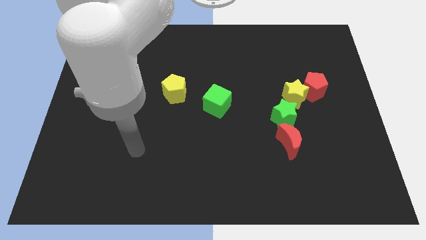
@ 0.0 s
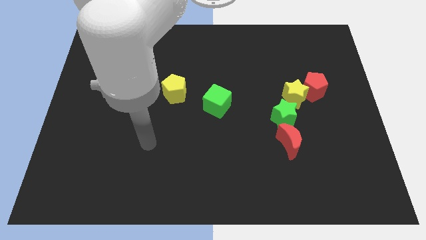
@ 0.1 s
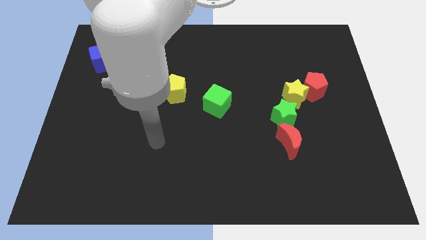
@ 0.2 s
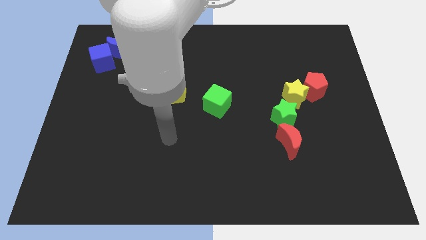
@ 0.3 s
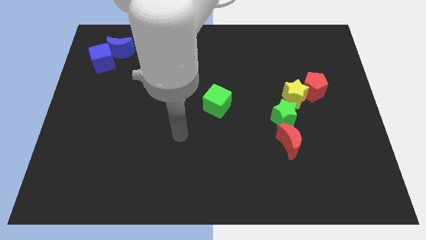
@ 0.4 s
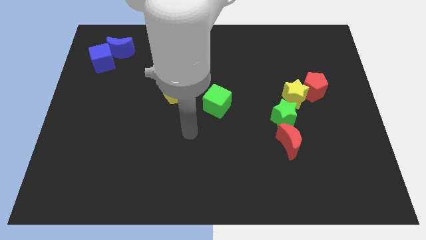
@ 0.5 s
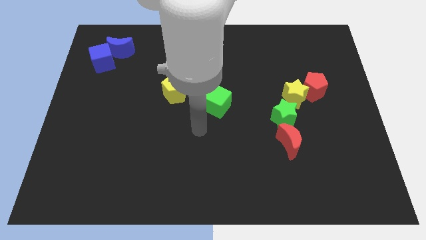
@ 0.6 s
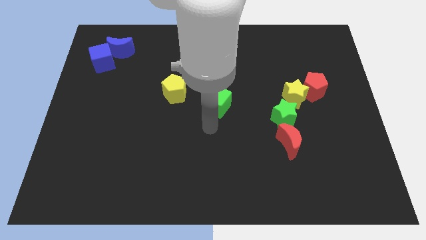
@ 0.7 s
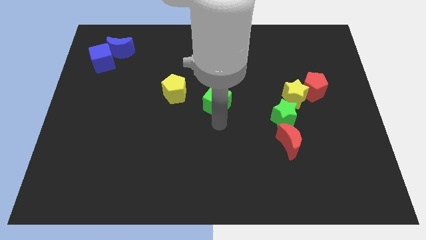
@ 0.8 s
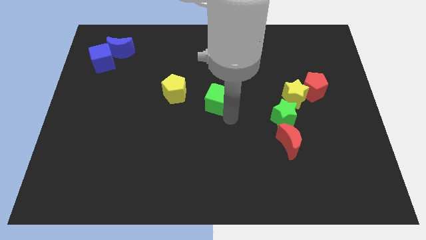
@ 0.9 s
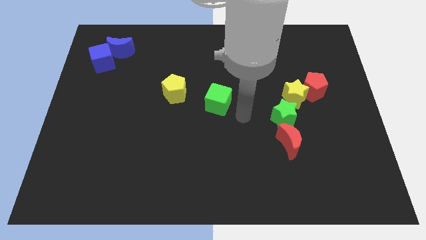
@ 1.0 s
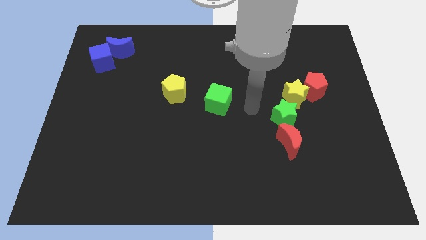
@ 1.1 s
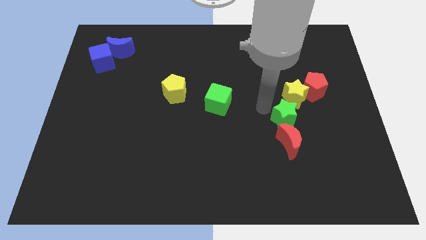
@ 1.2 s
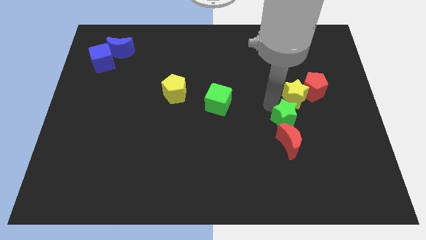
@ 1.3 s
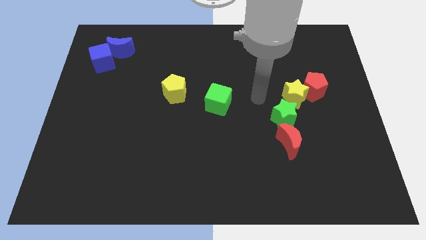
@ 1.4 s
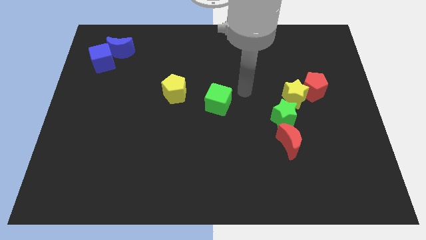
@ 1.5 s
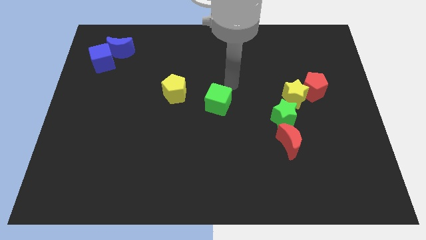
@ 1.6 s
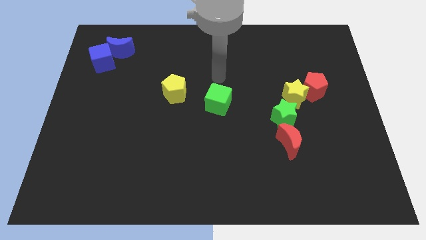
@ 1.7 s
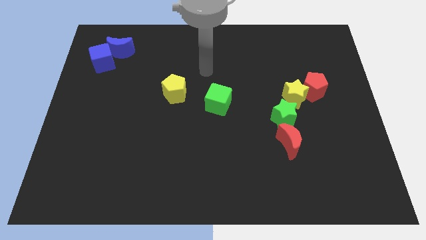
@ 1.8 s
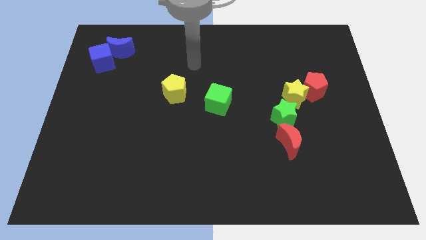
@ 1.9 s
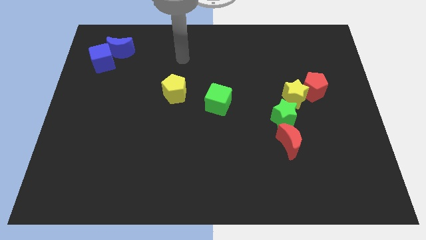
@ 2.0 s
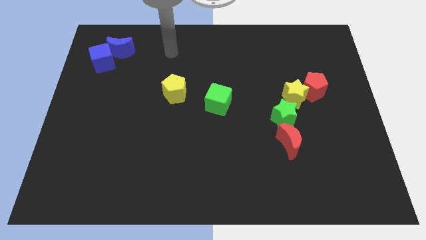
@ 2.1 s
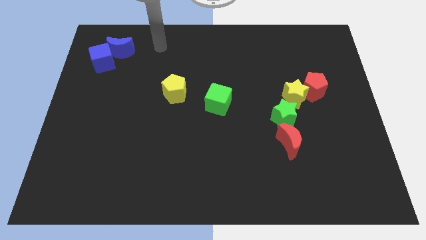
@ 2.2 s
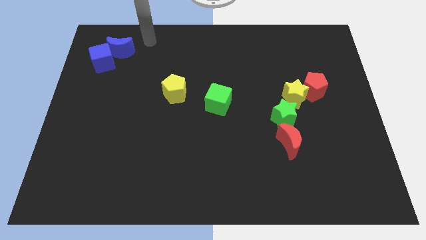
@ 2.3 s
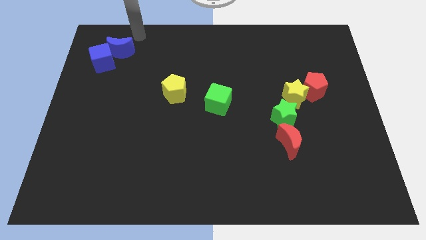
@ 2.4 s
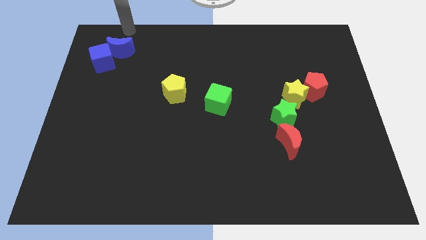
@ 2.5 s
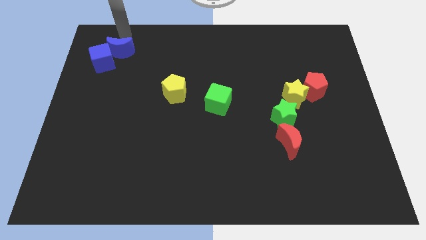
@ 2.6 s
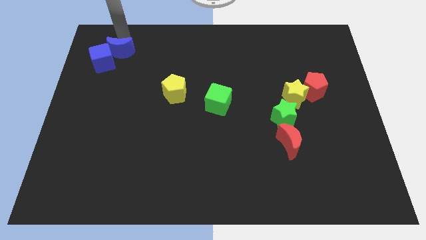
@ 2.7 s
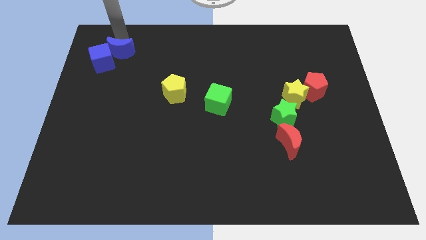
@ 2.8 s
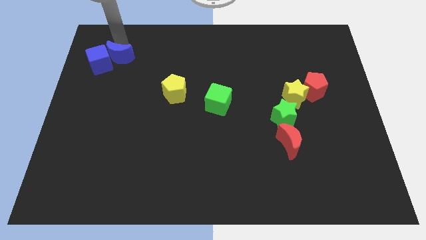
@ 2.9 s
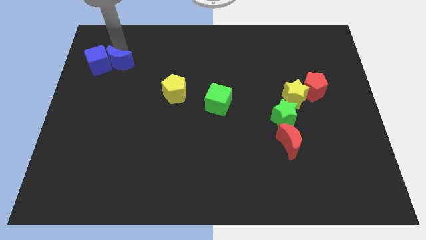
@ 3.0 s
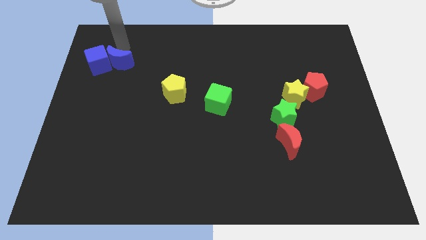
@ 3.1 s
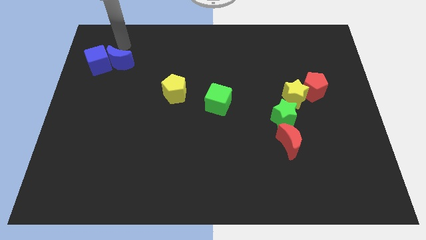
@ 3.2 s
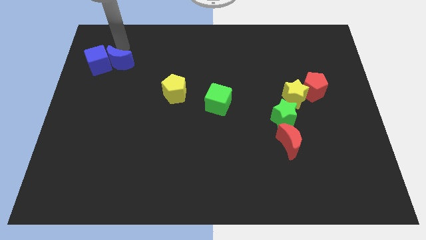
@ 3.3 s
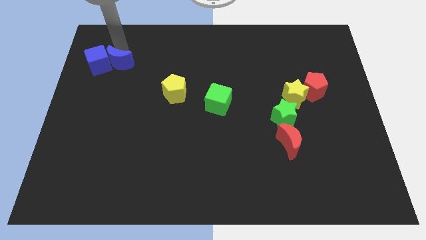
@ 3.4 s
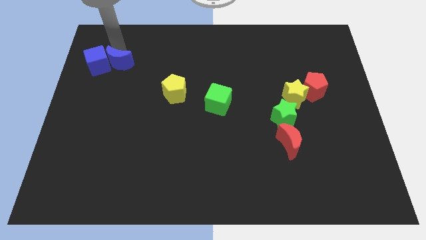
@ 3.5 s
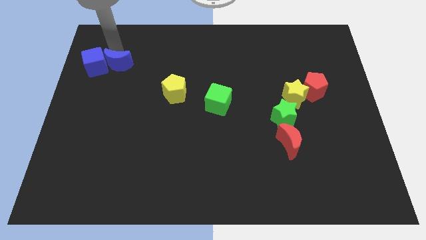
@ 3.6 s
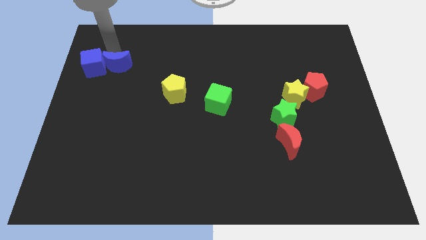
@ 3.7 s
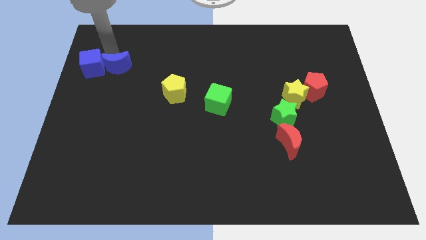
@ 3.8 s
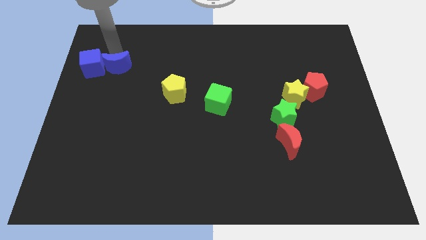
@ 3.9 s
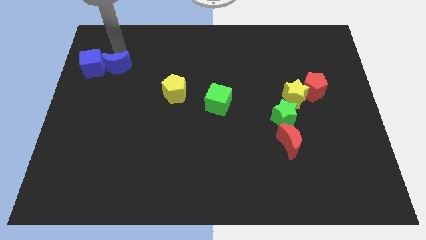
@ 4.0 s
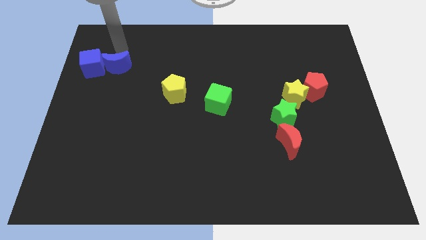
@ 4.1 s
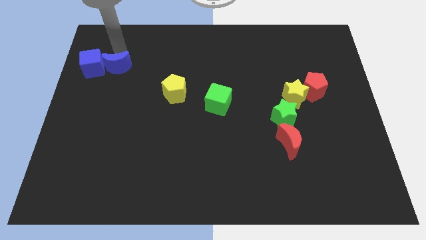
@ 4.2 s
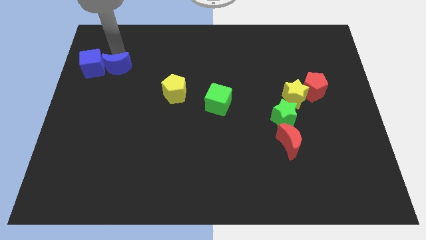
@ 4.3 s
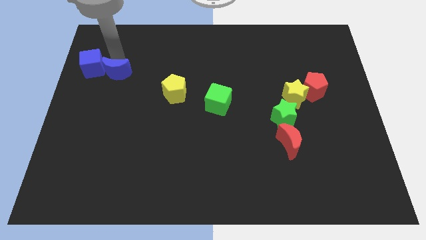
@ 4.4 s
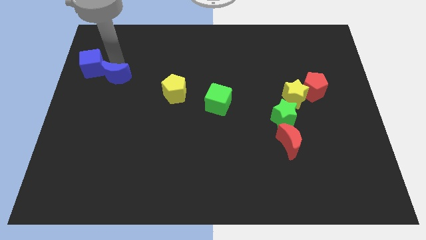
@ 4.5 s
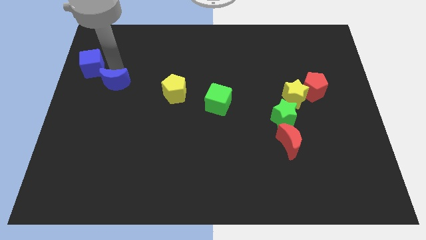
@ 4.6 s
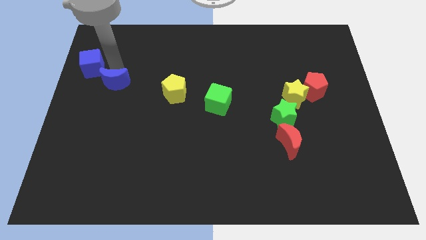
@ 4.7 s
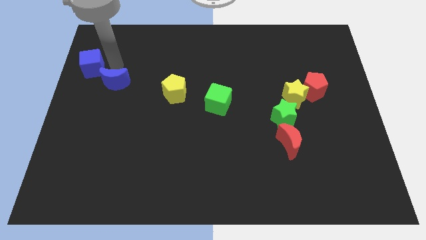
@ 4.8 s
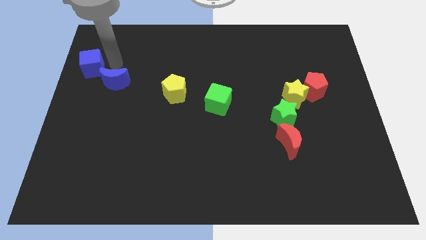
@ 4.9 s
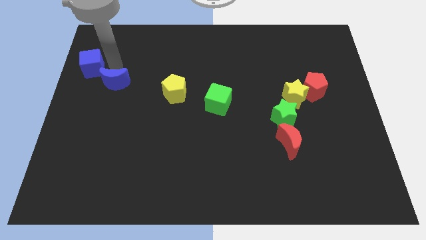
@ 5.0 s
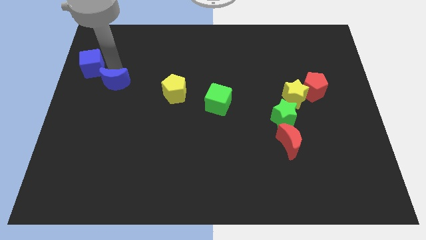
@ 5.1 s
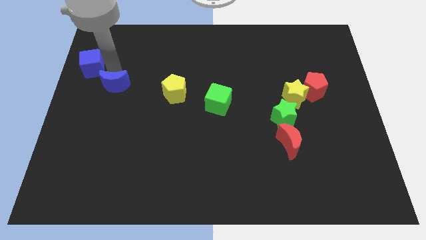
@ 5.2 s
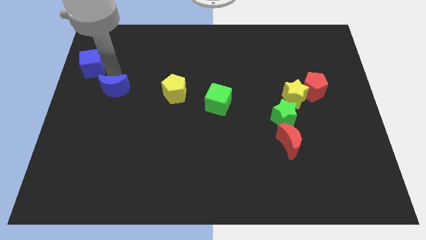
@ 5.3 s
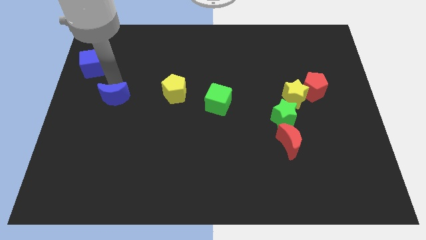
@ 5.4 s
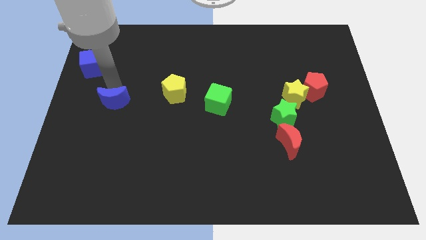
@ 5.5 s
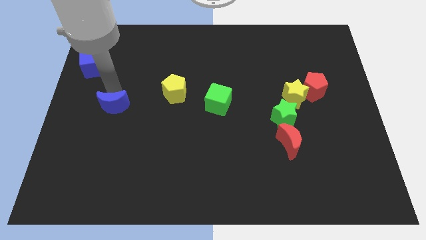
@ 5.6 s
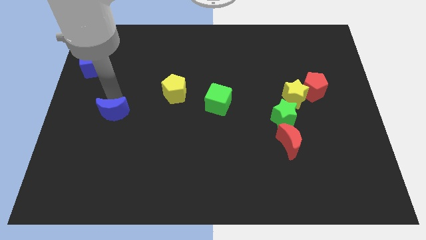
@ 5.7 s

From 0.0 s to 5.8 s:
move the blue moon down

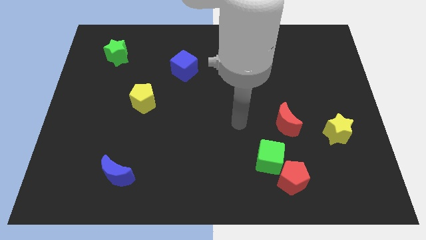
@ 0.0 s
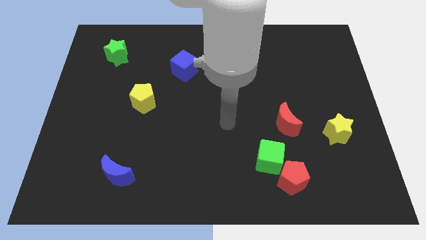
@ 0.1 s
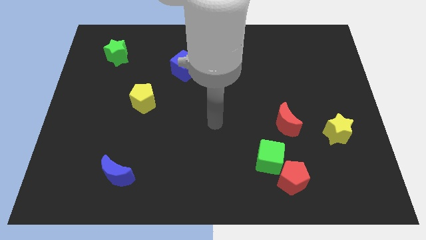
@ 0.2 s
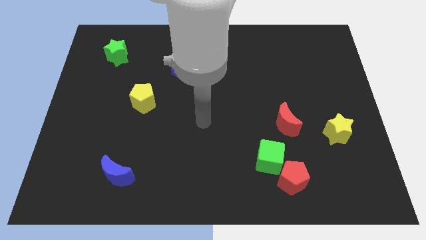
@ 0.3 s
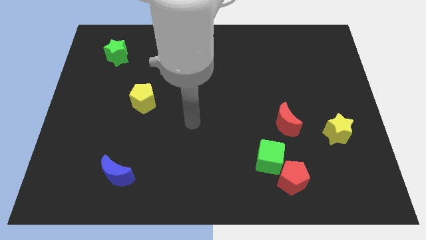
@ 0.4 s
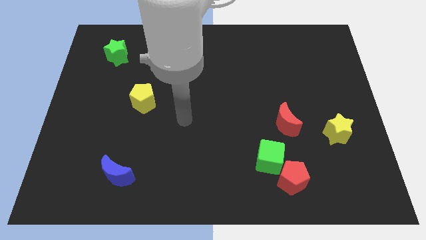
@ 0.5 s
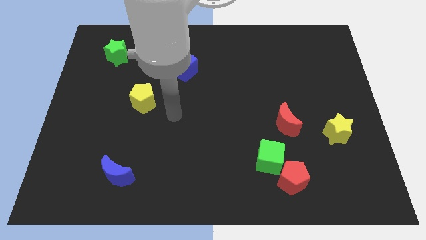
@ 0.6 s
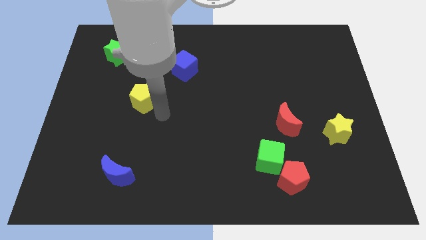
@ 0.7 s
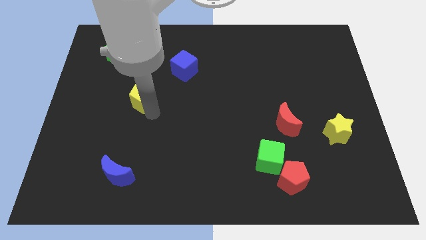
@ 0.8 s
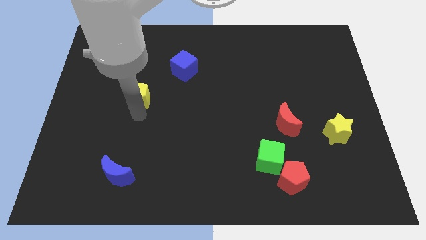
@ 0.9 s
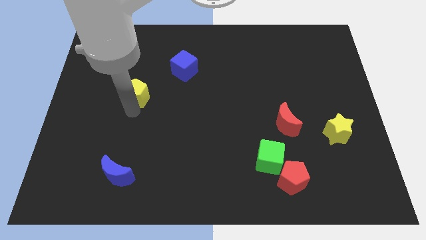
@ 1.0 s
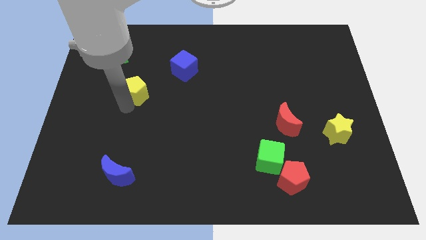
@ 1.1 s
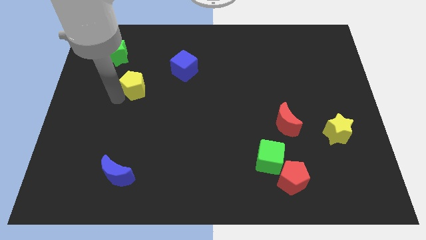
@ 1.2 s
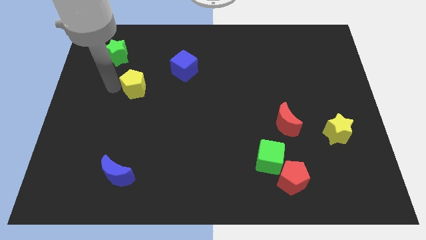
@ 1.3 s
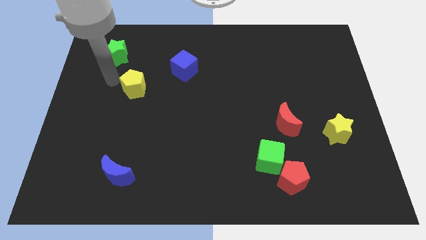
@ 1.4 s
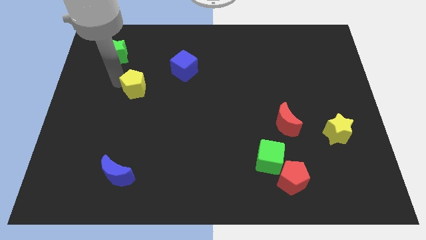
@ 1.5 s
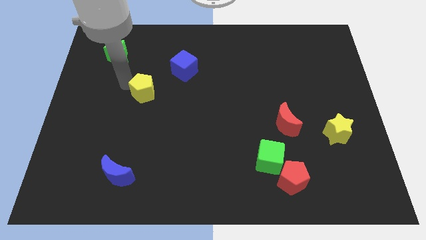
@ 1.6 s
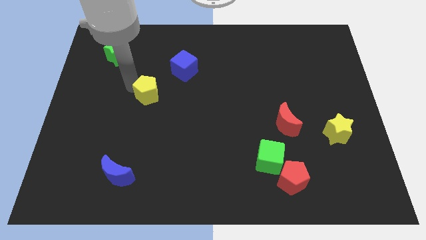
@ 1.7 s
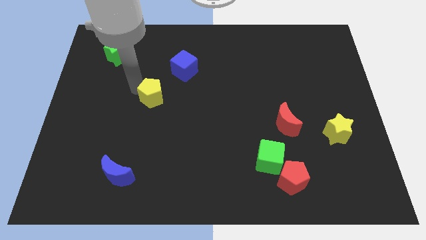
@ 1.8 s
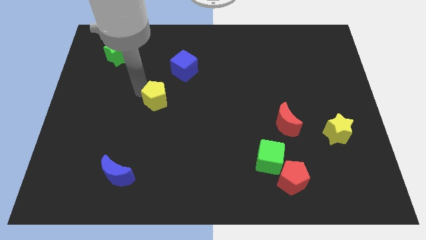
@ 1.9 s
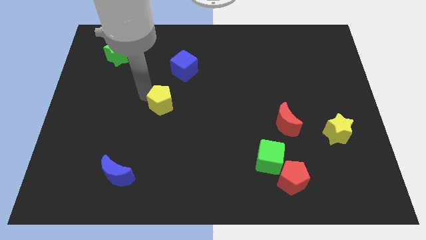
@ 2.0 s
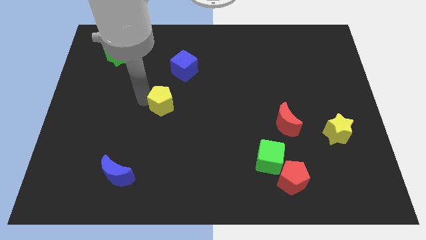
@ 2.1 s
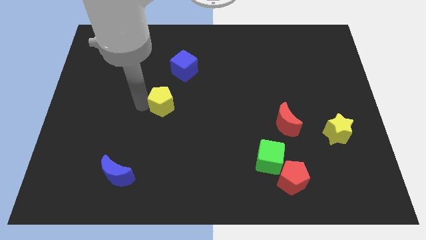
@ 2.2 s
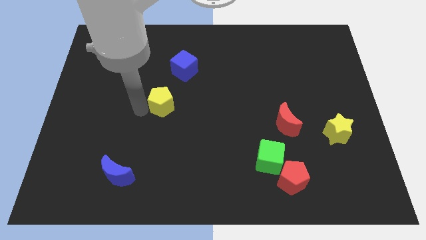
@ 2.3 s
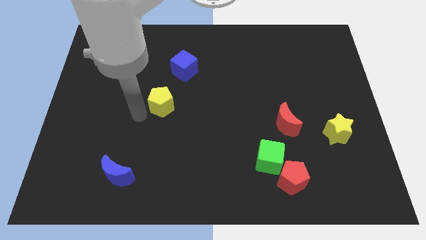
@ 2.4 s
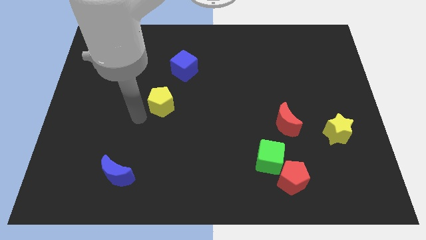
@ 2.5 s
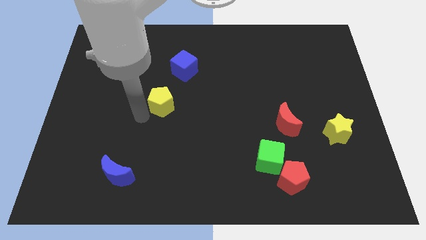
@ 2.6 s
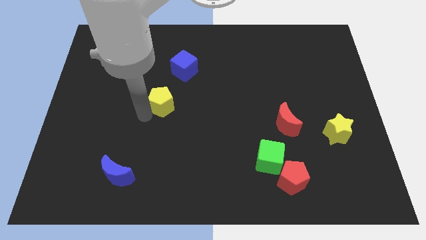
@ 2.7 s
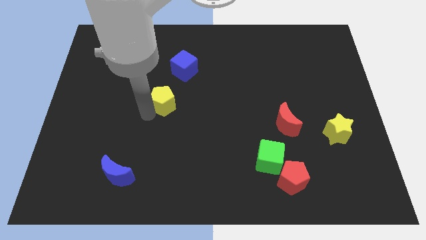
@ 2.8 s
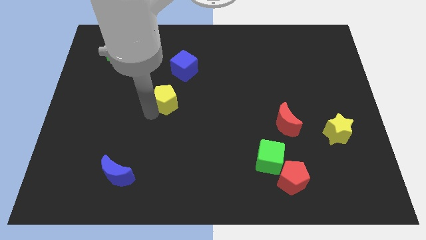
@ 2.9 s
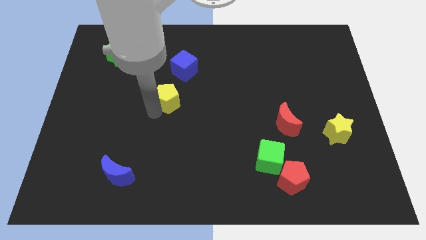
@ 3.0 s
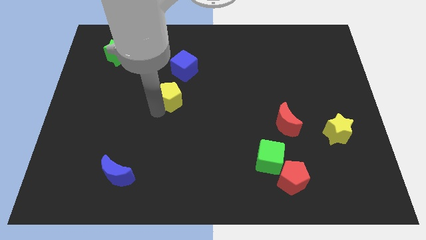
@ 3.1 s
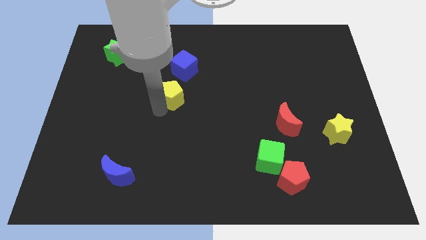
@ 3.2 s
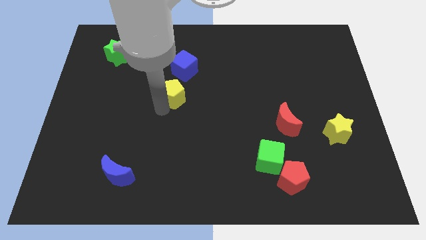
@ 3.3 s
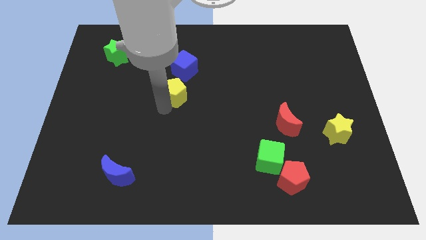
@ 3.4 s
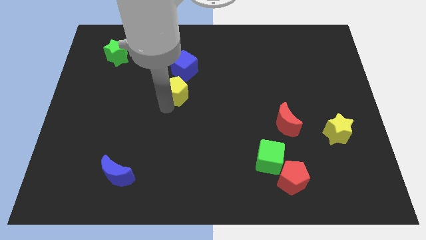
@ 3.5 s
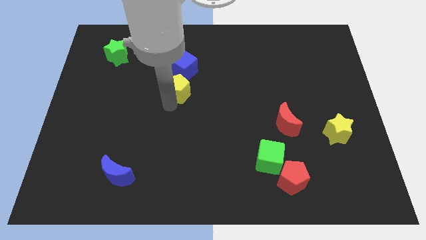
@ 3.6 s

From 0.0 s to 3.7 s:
slightly push the yellow pentagon diagonally up and right
